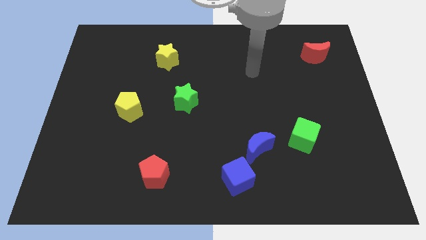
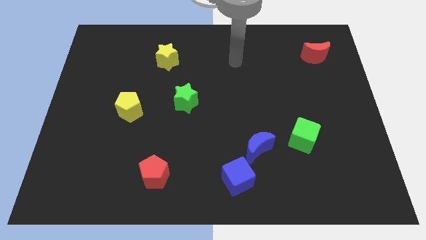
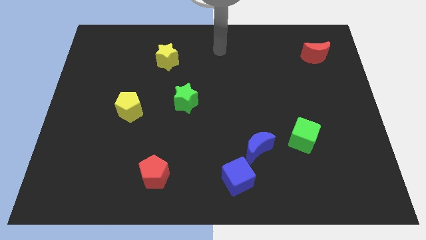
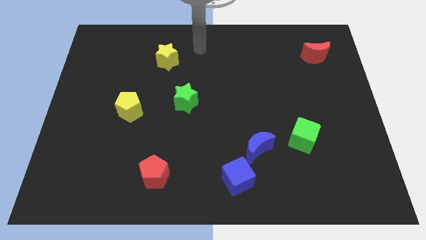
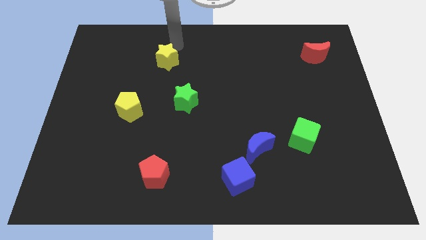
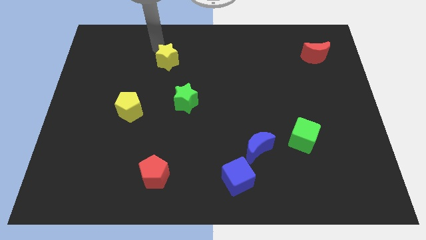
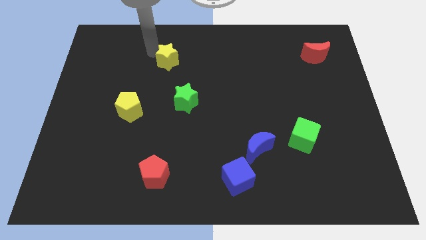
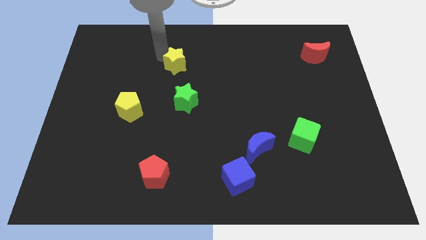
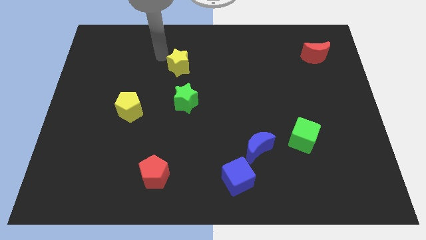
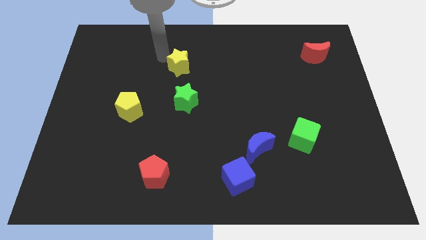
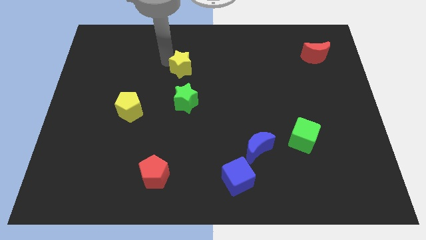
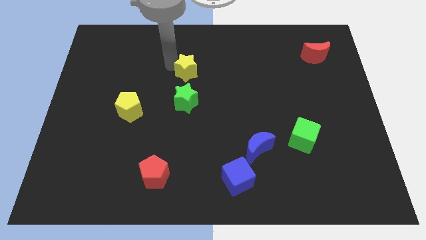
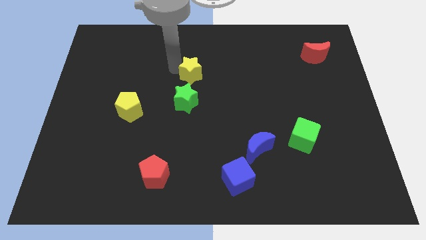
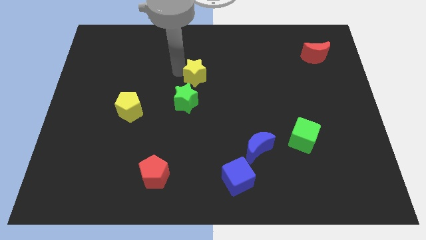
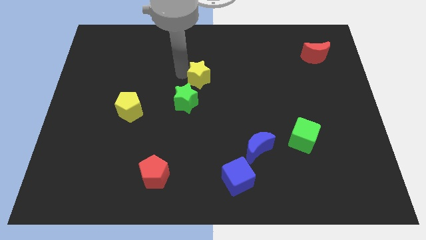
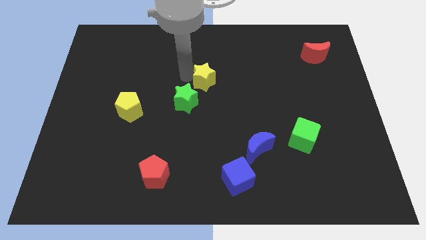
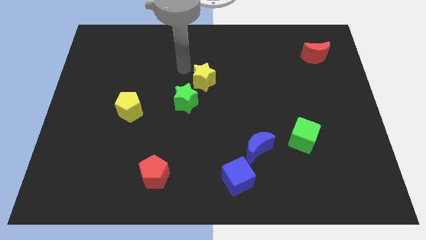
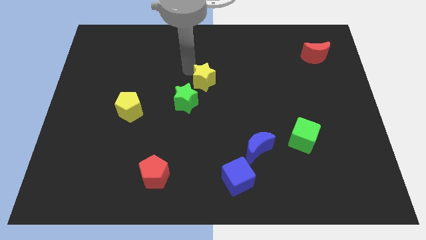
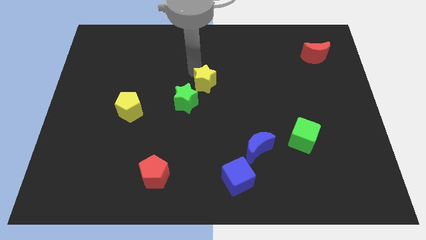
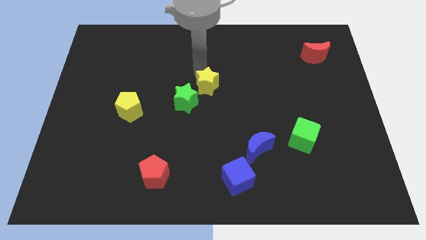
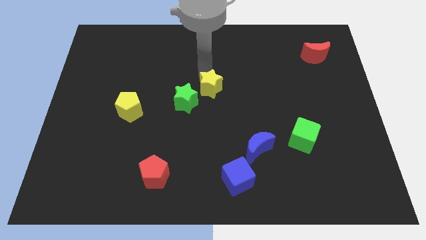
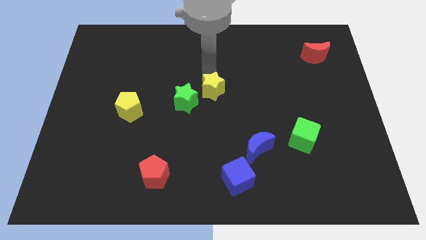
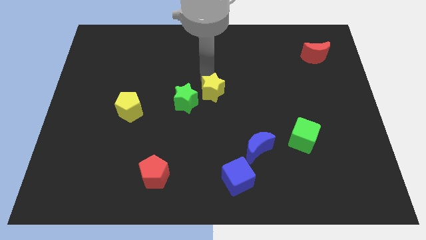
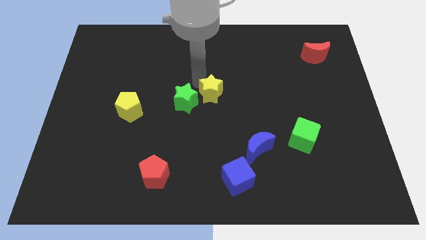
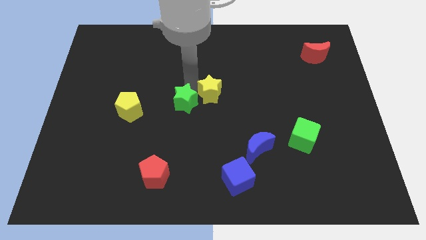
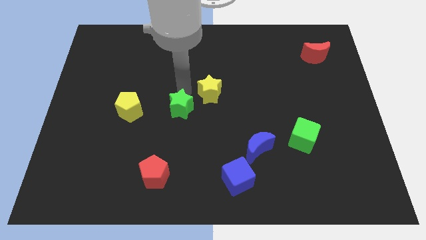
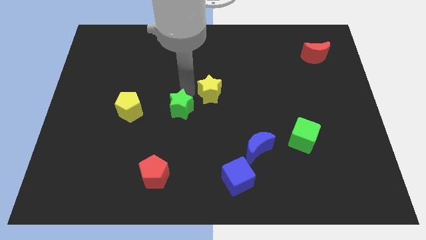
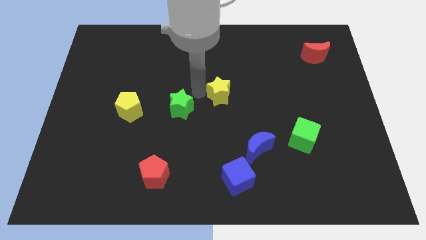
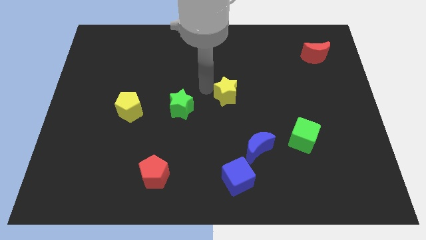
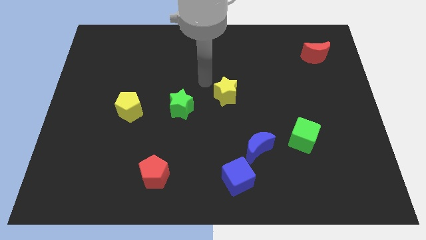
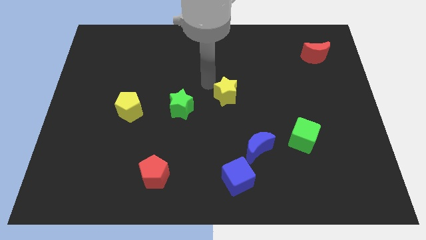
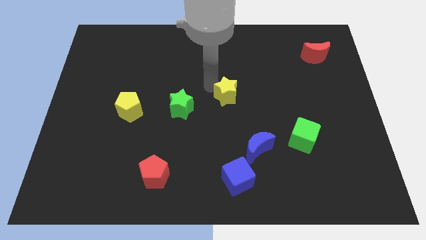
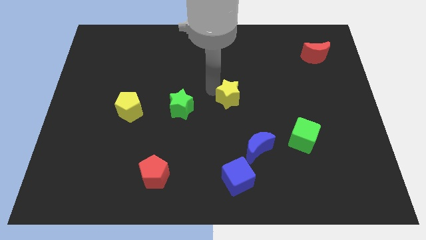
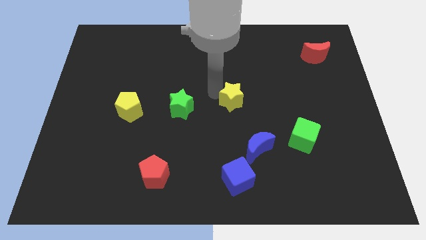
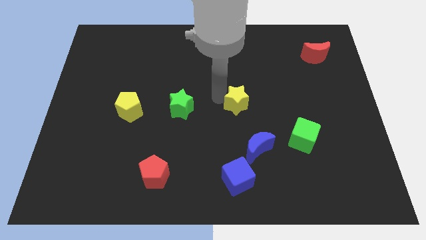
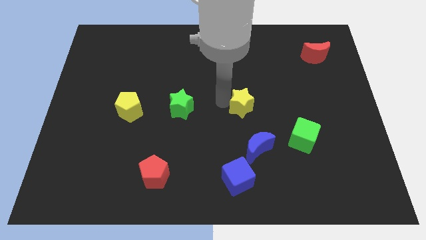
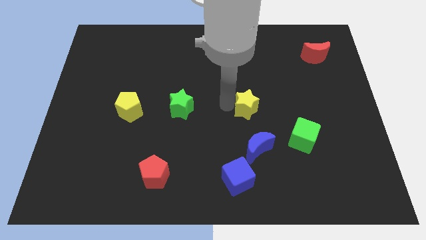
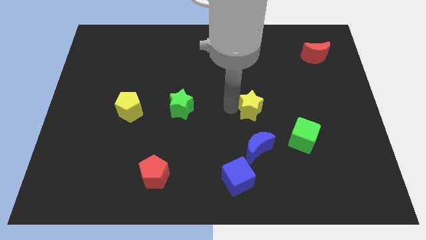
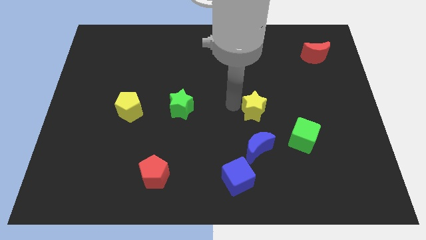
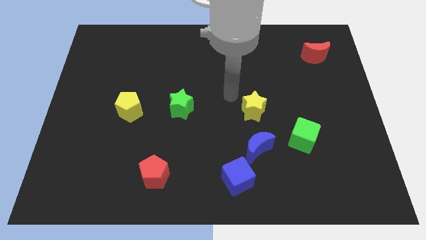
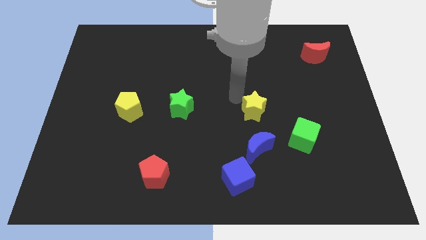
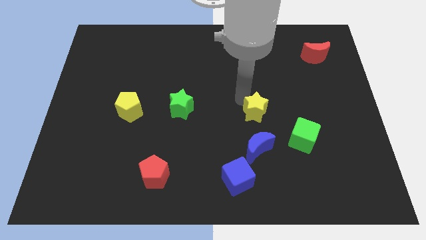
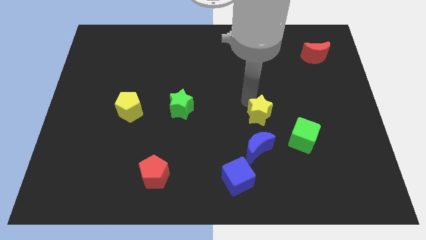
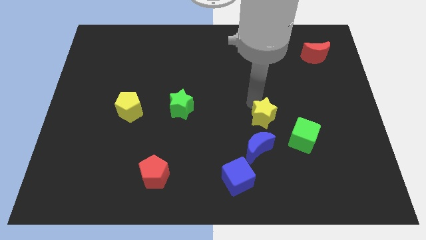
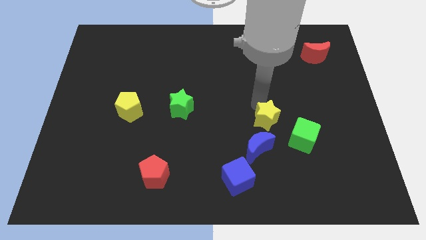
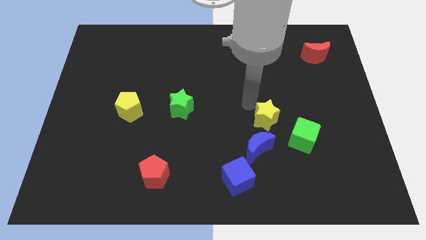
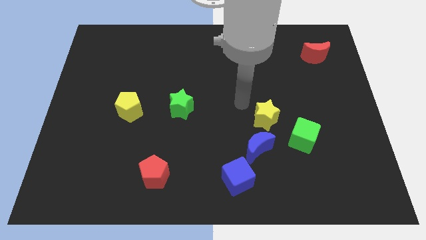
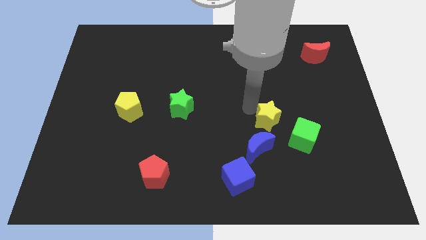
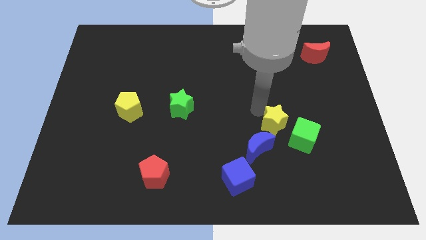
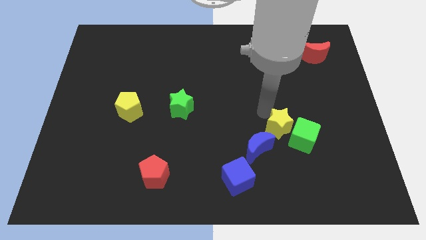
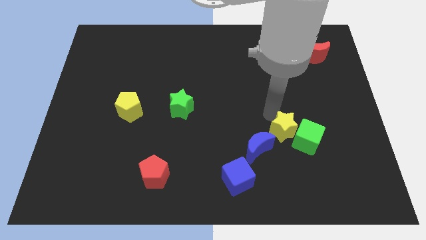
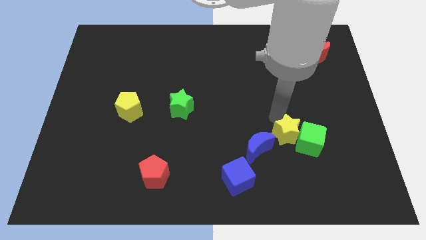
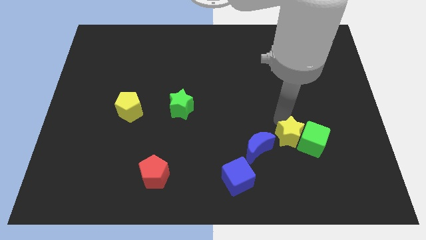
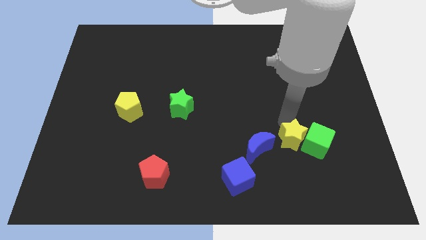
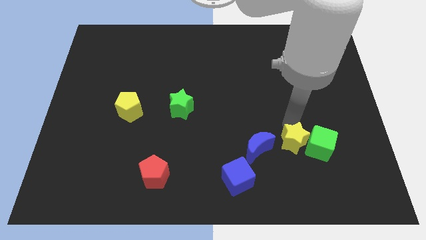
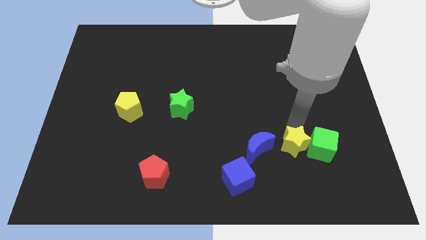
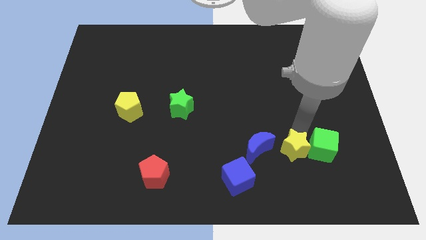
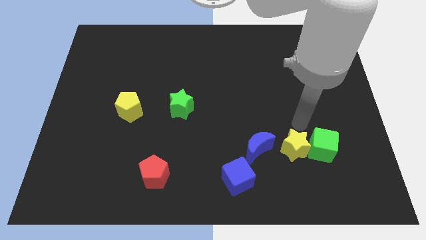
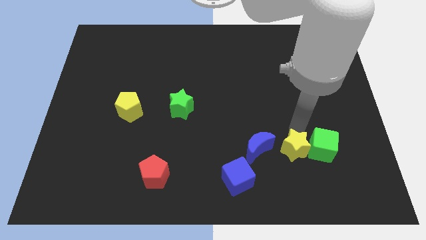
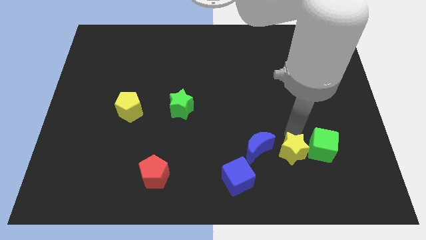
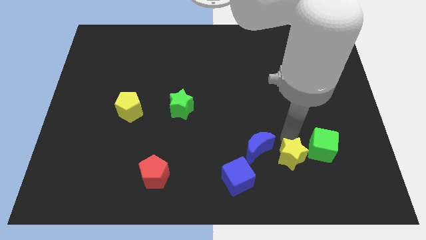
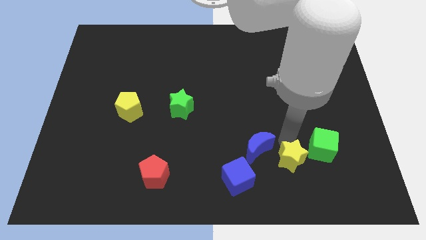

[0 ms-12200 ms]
put the yellow star to the right of the blue cube

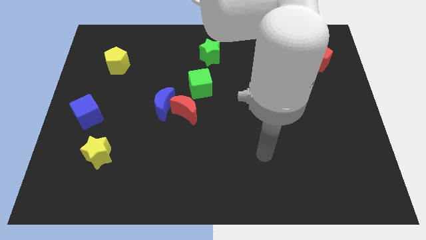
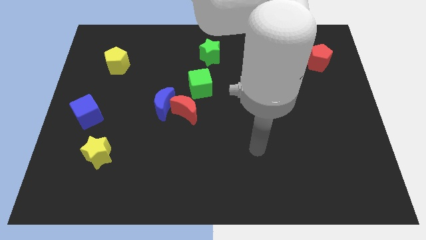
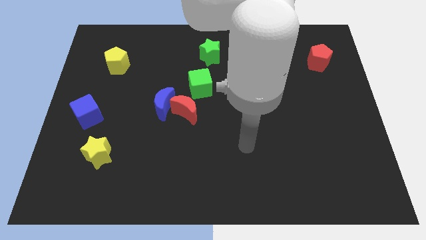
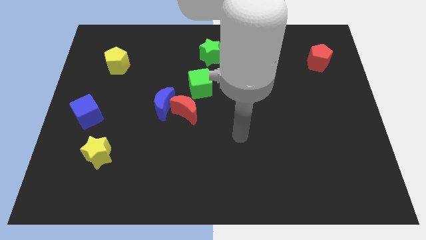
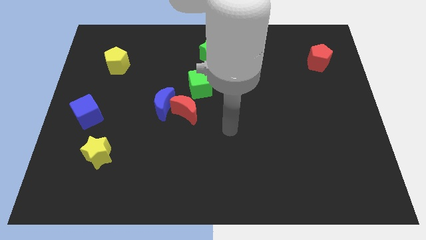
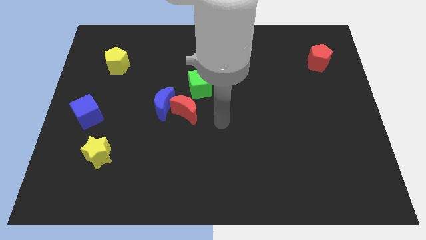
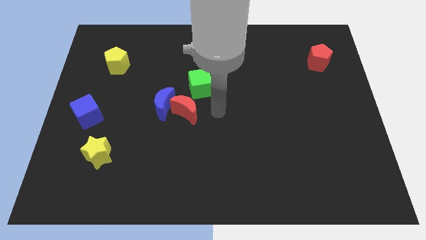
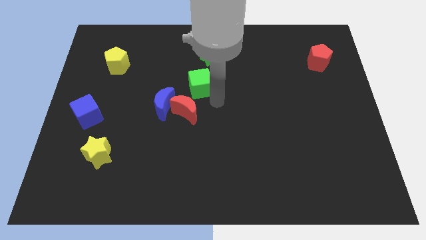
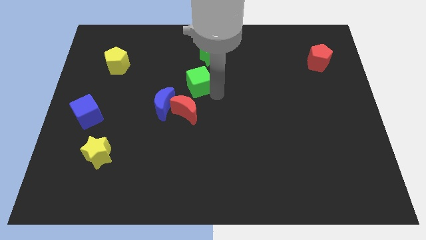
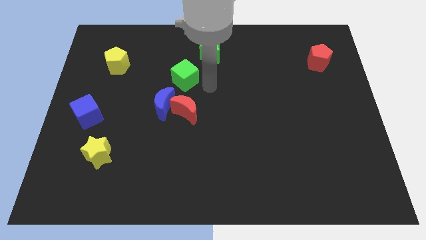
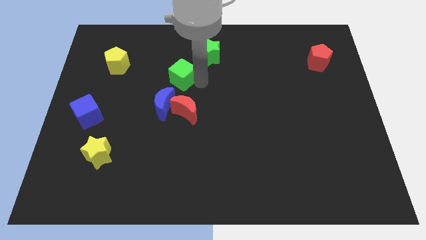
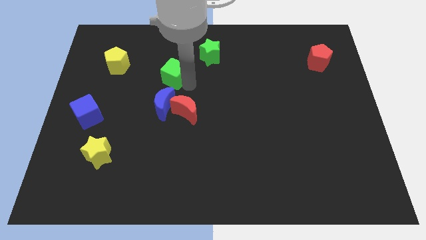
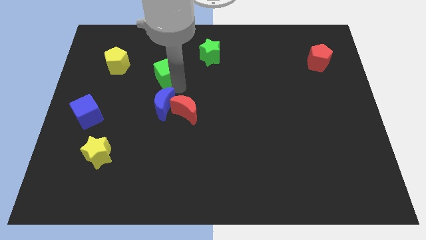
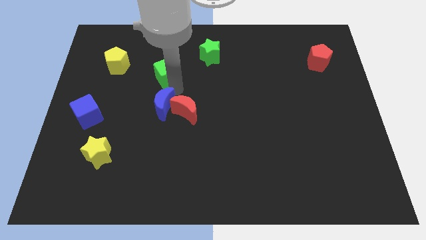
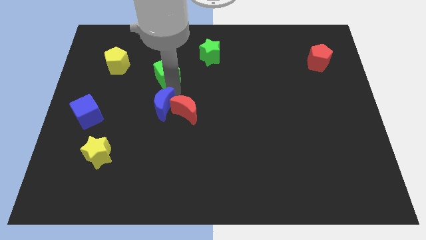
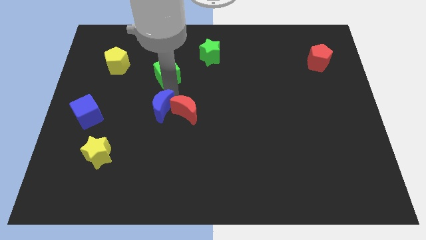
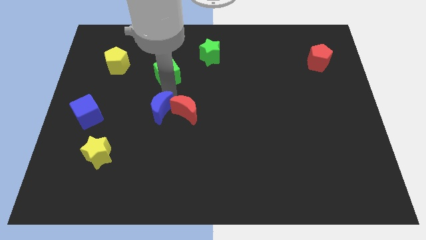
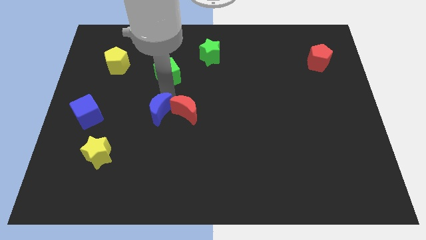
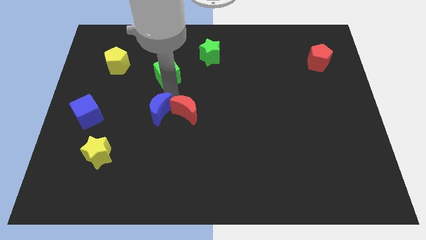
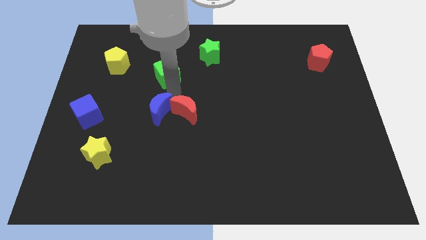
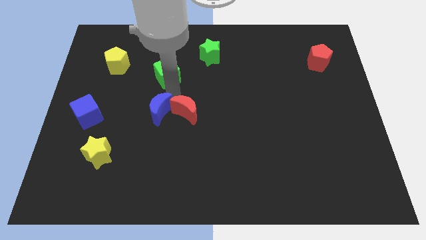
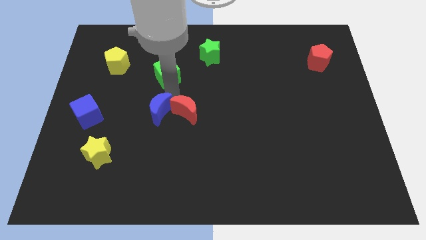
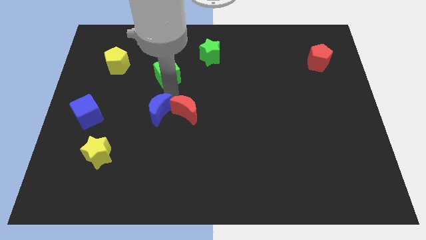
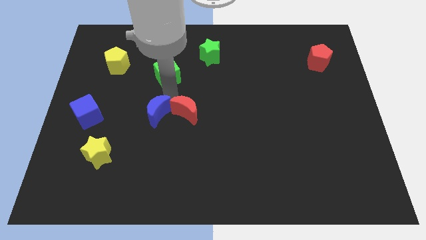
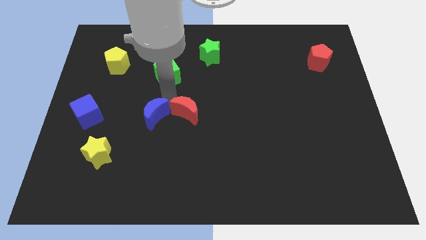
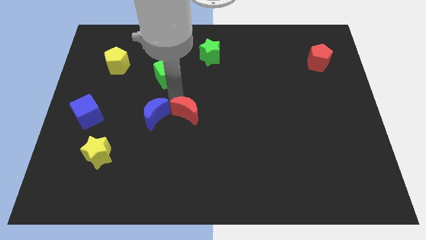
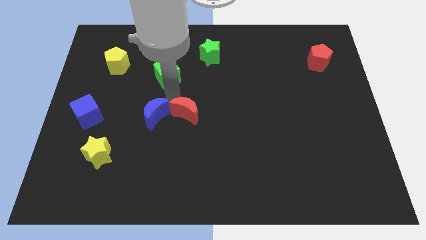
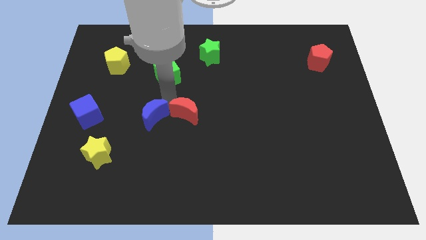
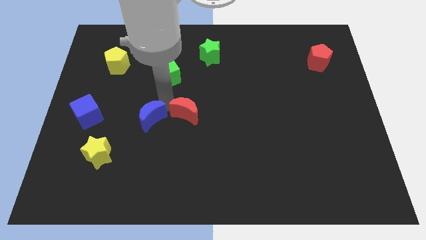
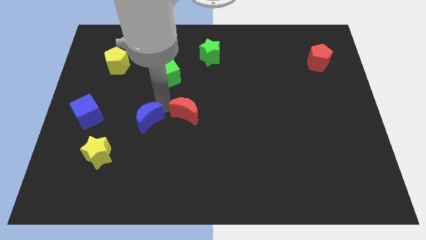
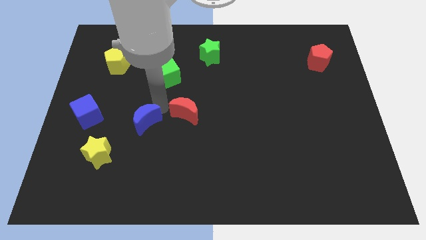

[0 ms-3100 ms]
slide the blue moon to the top right of the yellow star
